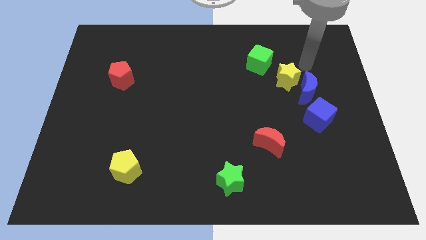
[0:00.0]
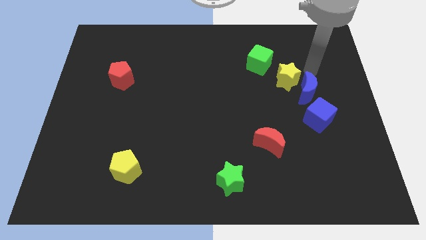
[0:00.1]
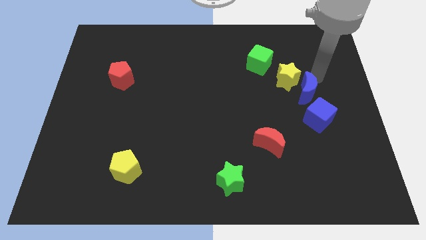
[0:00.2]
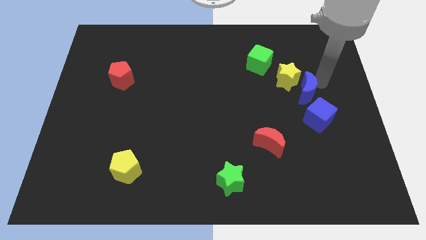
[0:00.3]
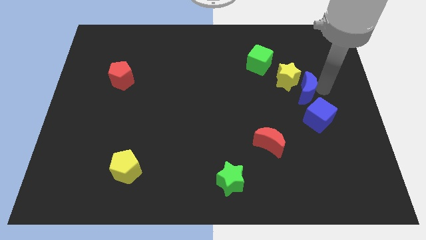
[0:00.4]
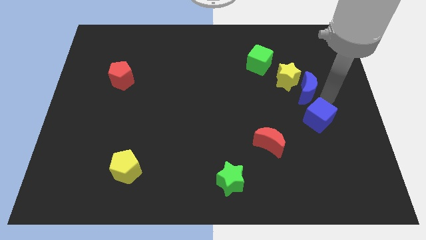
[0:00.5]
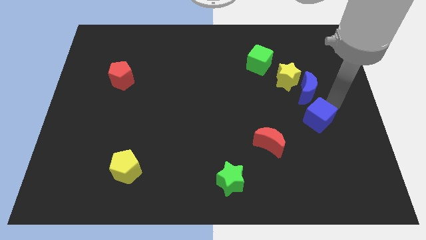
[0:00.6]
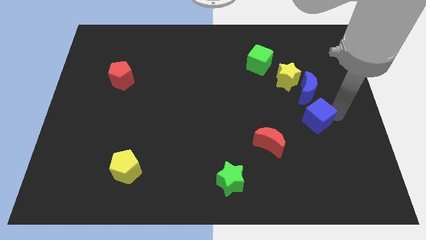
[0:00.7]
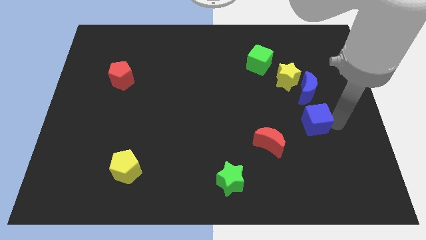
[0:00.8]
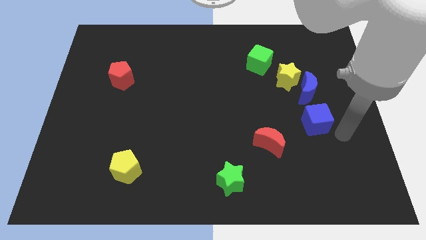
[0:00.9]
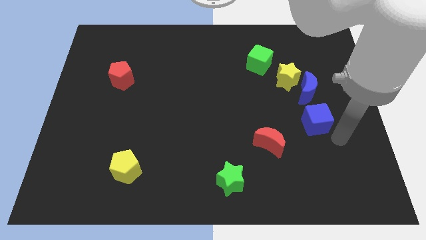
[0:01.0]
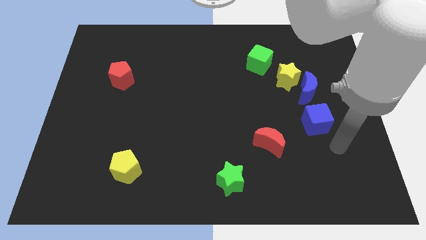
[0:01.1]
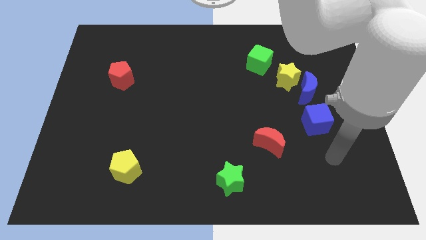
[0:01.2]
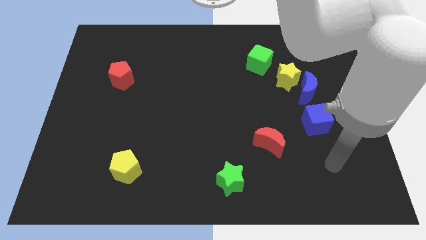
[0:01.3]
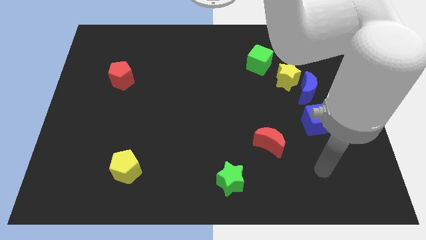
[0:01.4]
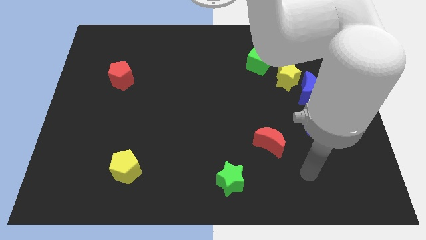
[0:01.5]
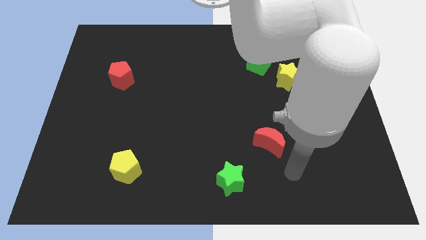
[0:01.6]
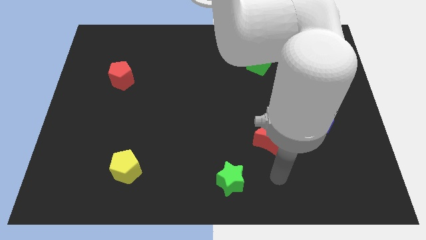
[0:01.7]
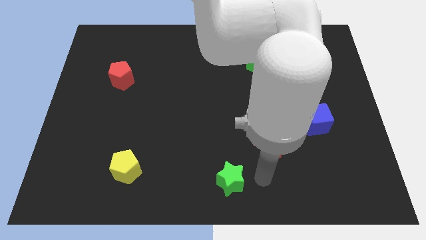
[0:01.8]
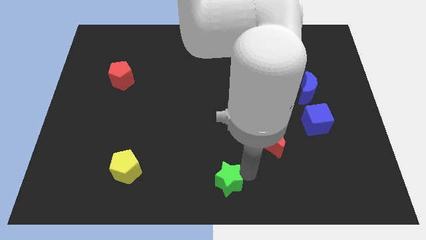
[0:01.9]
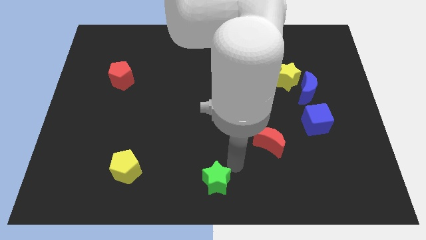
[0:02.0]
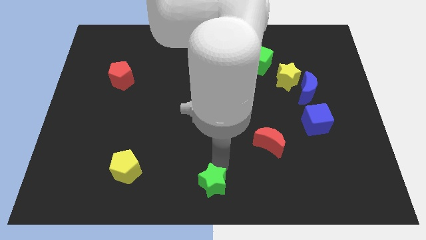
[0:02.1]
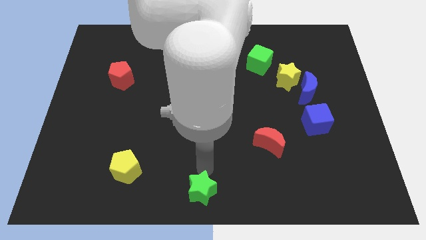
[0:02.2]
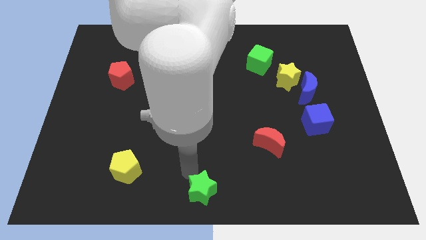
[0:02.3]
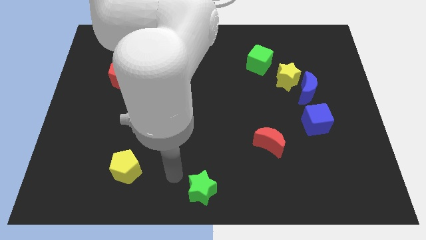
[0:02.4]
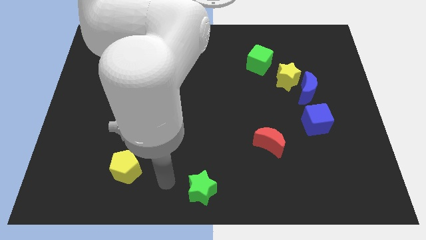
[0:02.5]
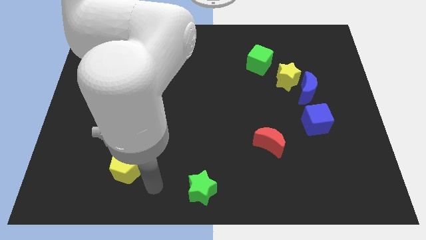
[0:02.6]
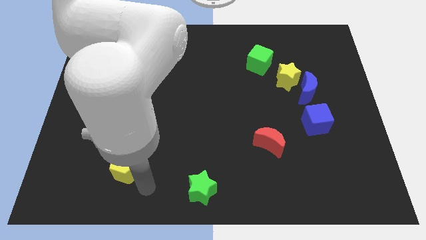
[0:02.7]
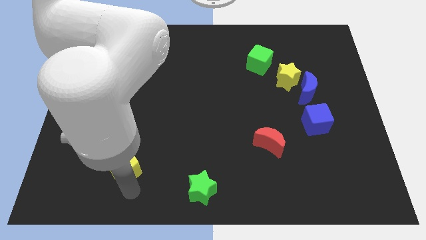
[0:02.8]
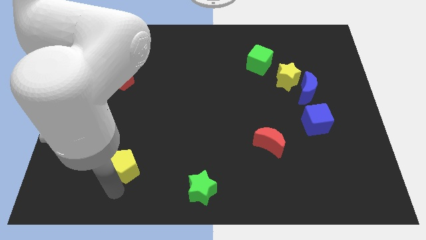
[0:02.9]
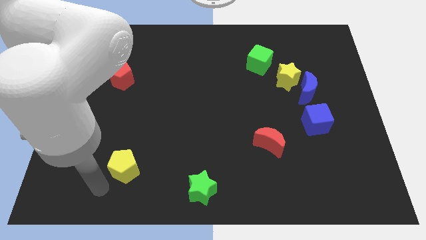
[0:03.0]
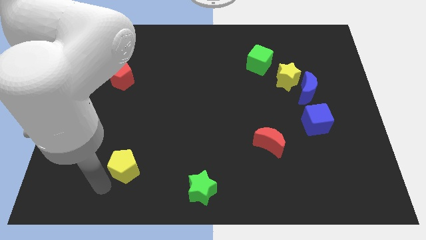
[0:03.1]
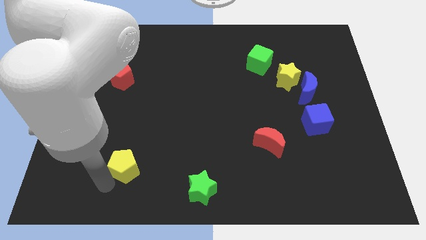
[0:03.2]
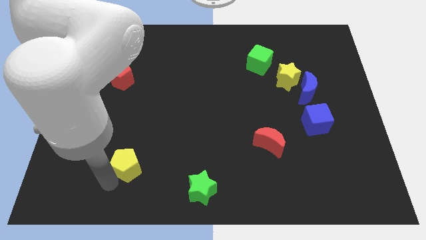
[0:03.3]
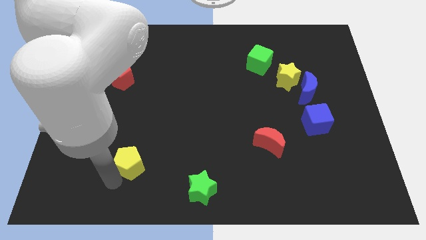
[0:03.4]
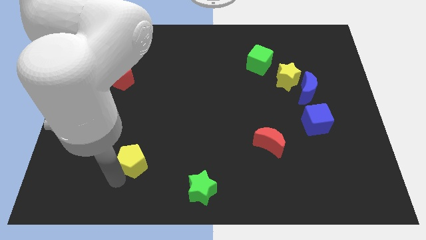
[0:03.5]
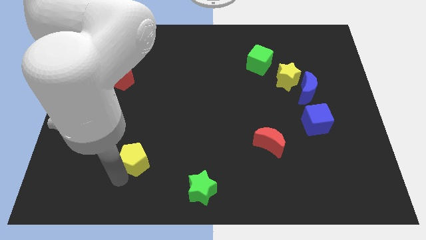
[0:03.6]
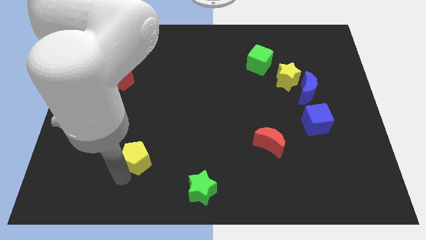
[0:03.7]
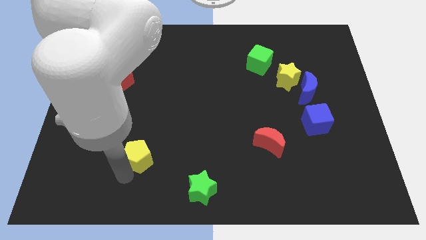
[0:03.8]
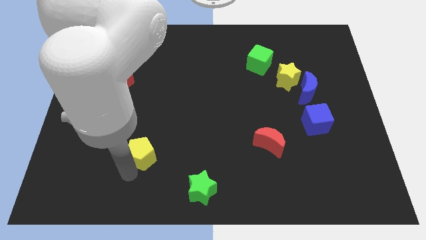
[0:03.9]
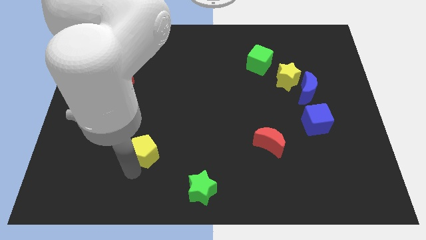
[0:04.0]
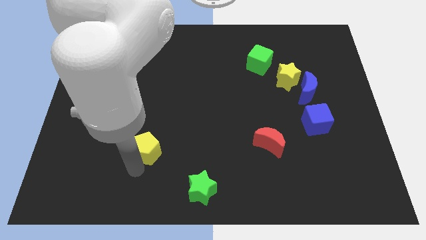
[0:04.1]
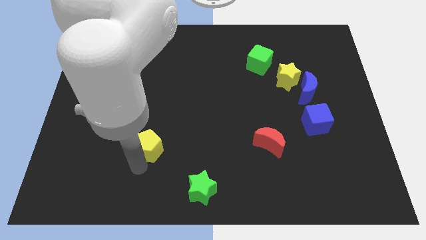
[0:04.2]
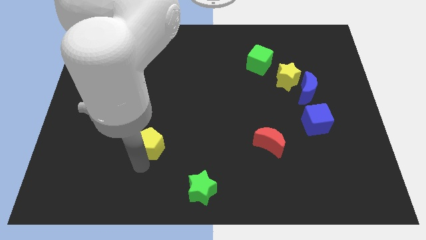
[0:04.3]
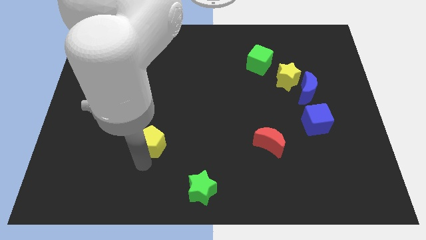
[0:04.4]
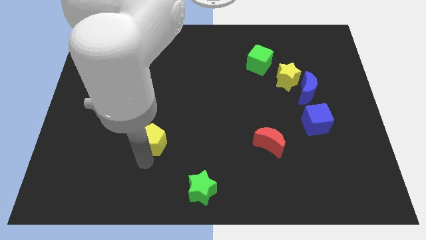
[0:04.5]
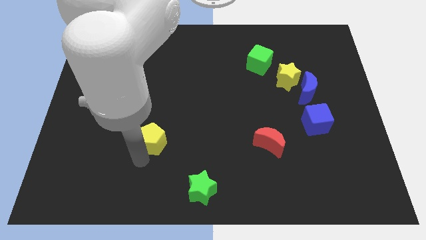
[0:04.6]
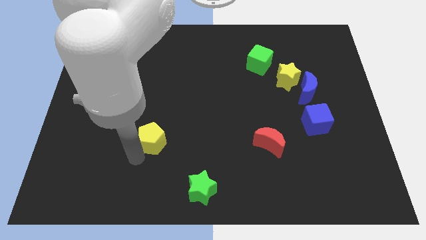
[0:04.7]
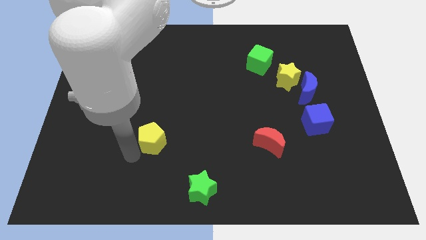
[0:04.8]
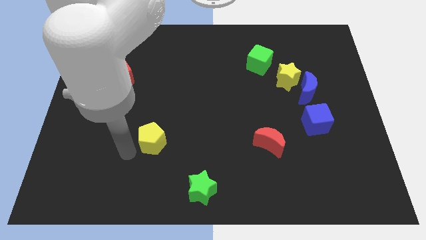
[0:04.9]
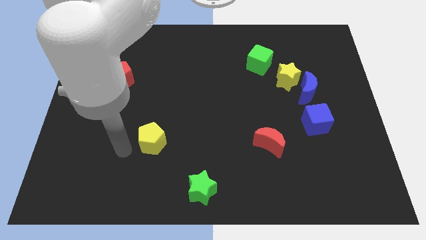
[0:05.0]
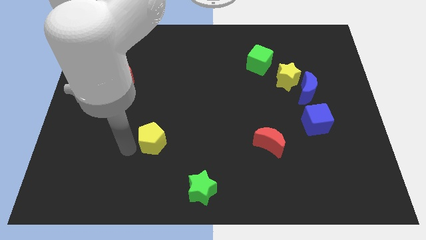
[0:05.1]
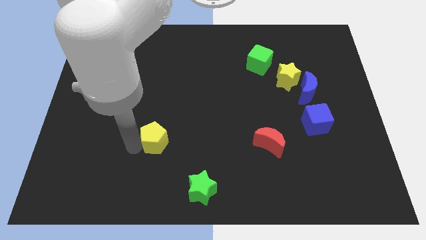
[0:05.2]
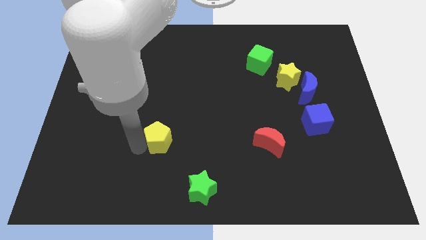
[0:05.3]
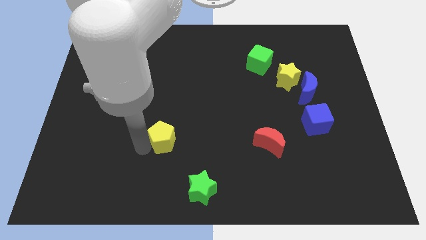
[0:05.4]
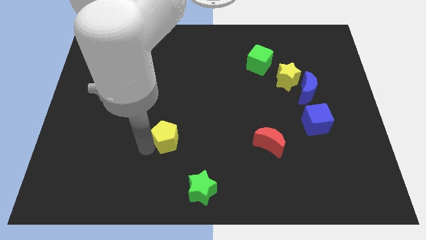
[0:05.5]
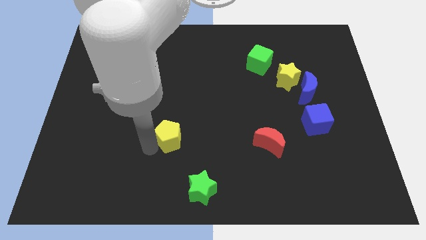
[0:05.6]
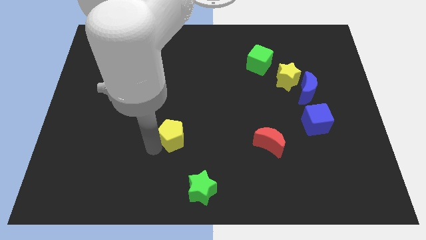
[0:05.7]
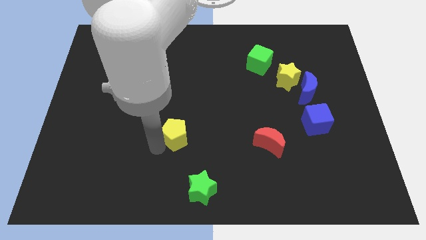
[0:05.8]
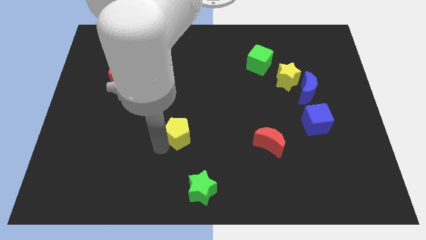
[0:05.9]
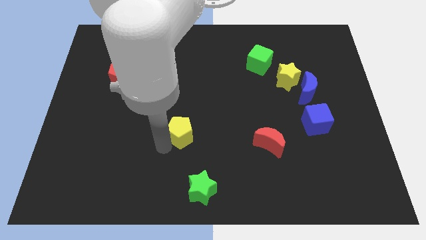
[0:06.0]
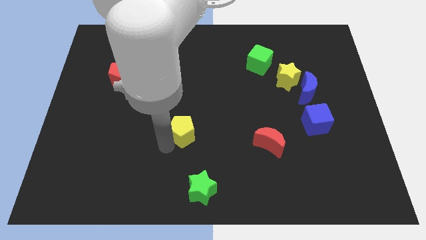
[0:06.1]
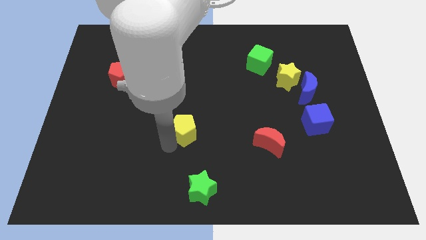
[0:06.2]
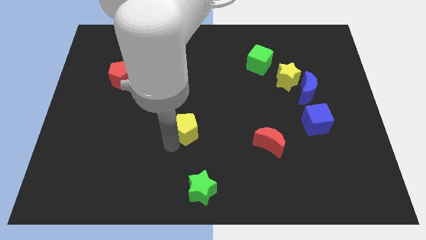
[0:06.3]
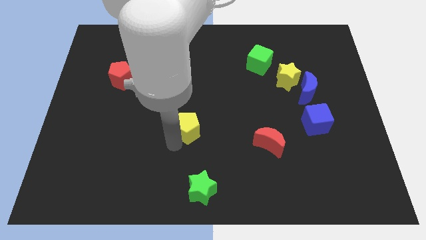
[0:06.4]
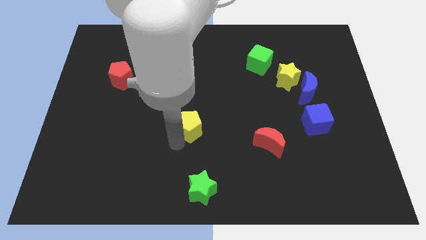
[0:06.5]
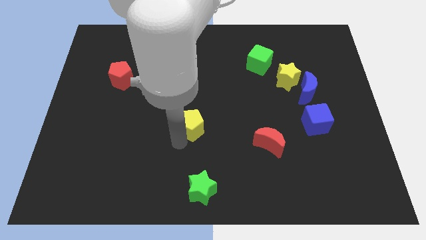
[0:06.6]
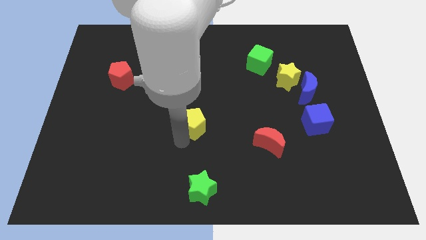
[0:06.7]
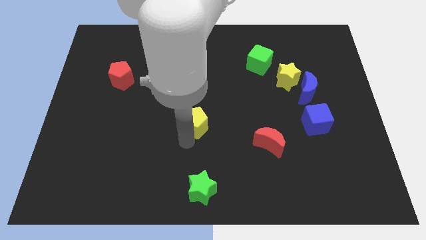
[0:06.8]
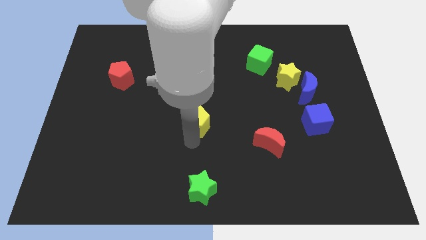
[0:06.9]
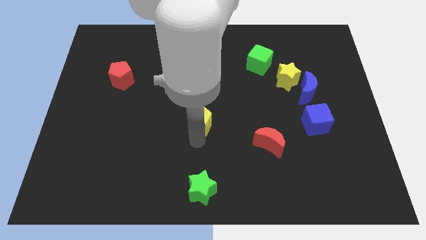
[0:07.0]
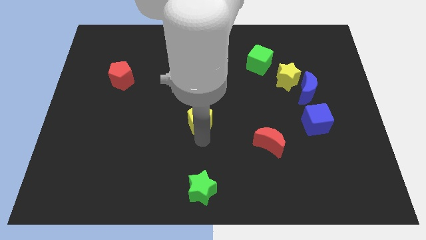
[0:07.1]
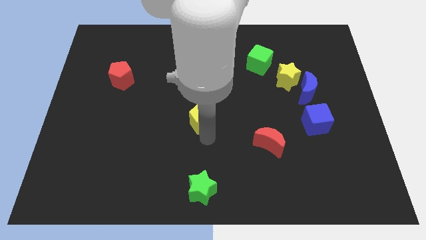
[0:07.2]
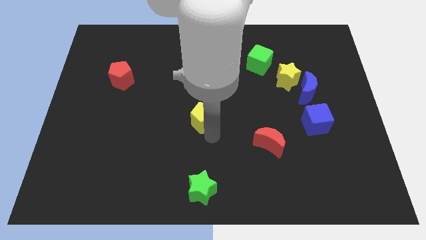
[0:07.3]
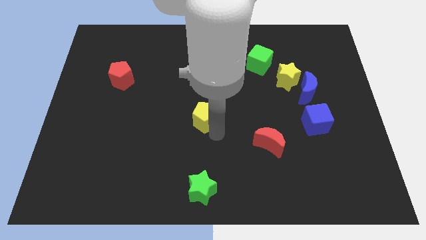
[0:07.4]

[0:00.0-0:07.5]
push the yellow pentagon upwards and right

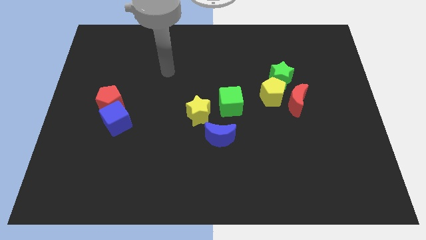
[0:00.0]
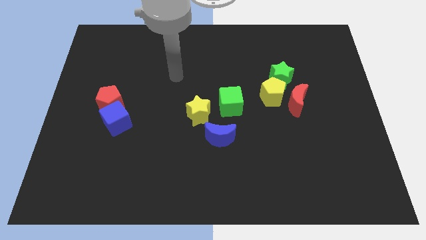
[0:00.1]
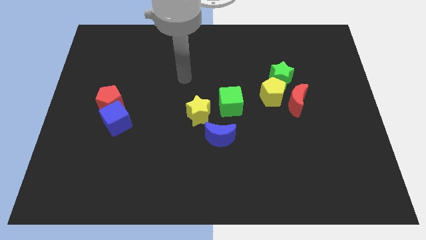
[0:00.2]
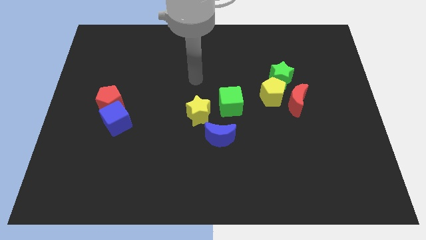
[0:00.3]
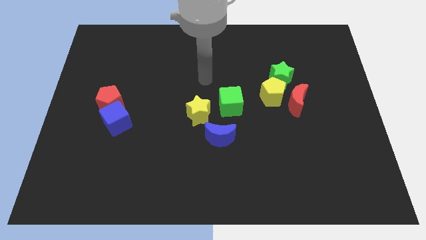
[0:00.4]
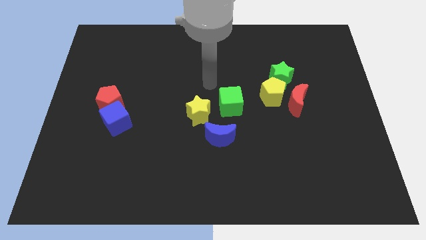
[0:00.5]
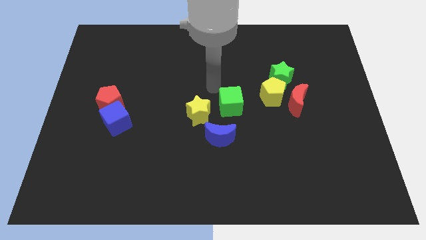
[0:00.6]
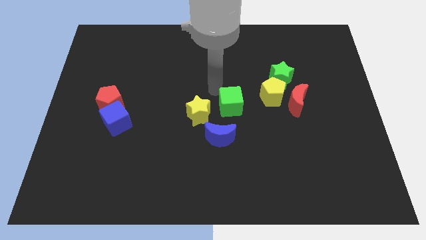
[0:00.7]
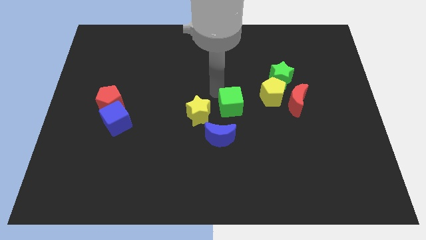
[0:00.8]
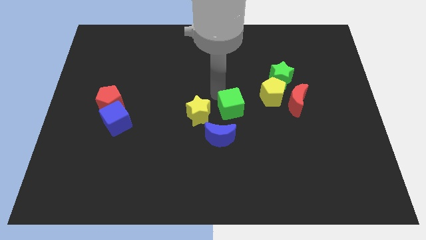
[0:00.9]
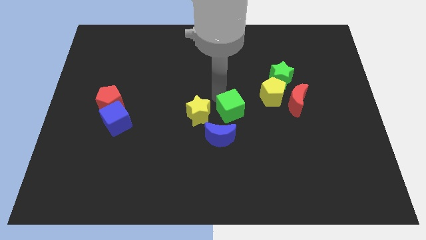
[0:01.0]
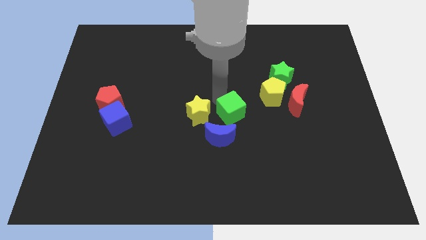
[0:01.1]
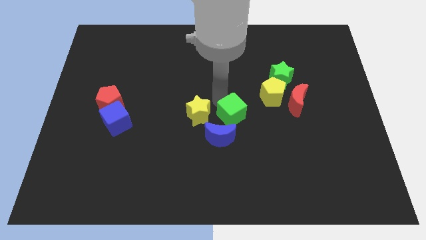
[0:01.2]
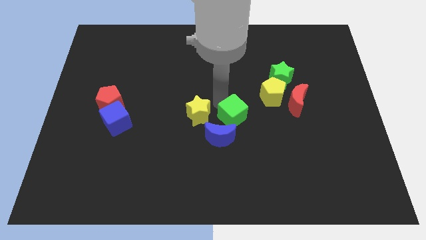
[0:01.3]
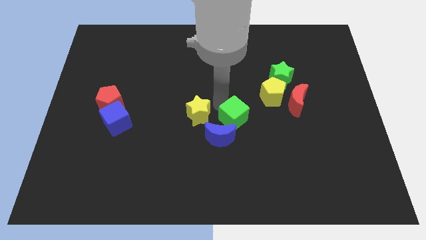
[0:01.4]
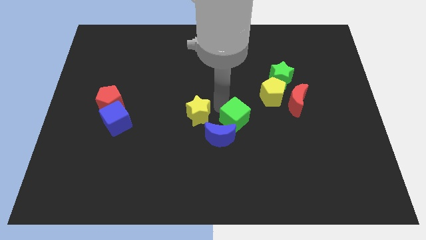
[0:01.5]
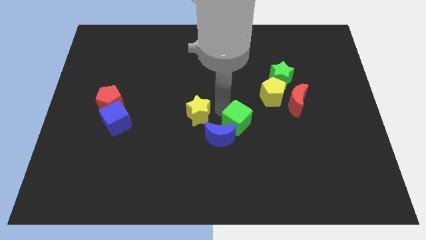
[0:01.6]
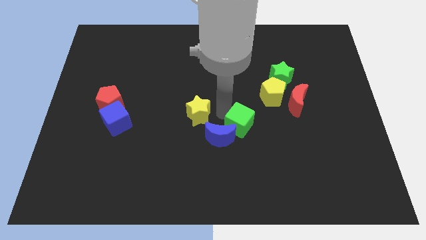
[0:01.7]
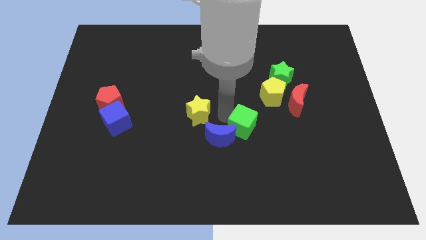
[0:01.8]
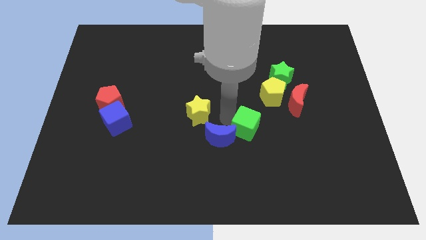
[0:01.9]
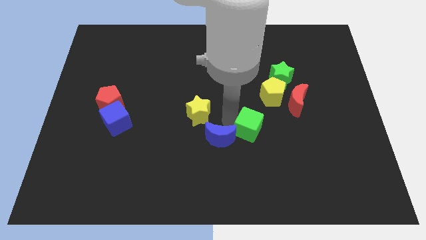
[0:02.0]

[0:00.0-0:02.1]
slide the green cube down and right diagonally slightly
